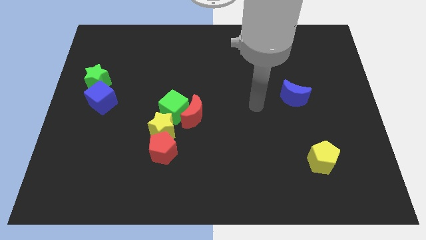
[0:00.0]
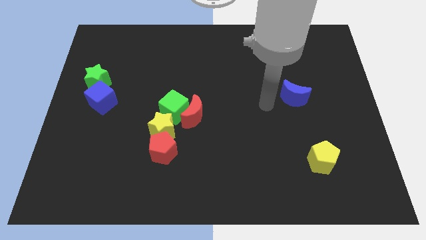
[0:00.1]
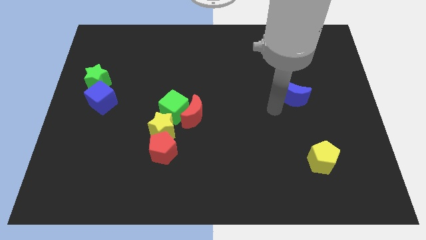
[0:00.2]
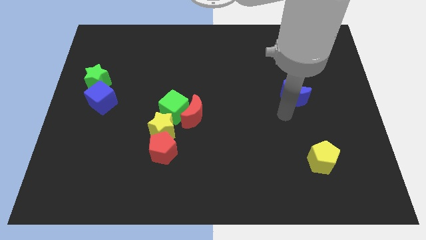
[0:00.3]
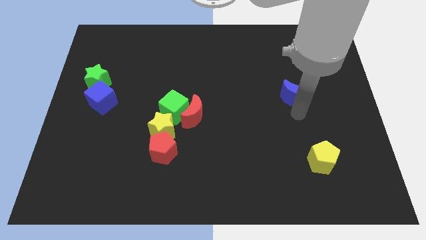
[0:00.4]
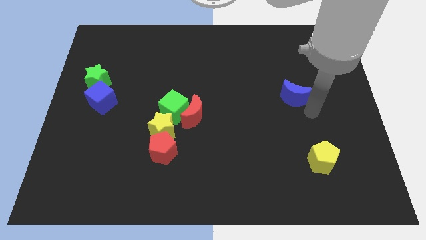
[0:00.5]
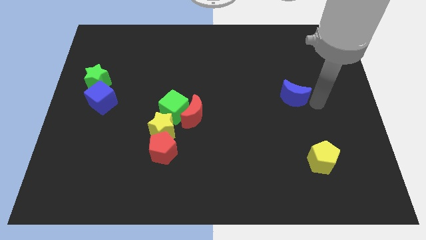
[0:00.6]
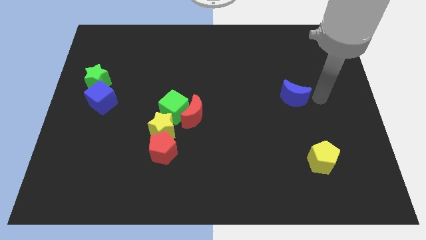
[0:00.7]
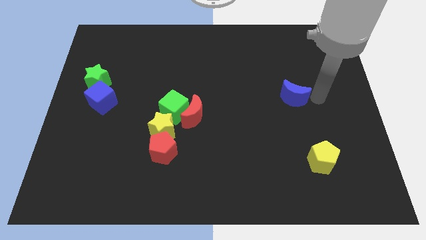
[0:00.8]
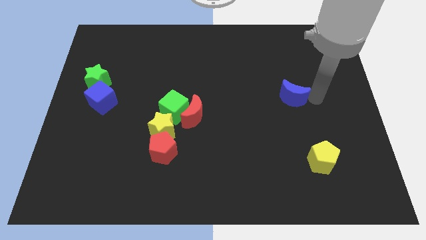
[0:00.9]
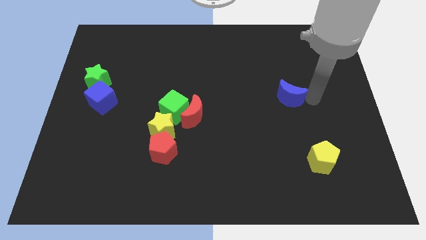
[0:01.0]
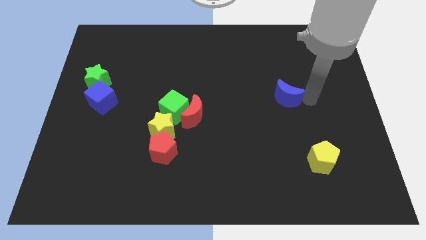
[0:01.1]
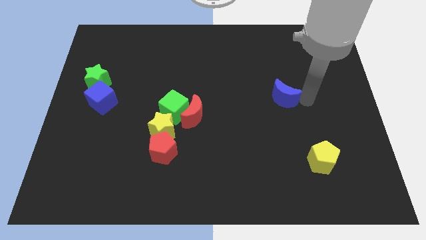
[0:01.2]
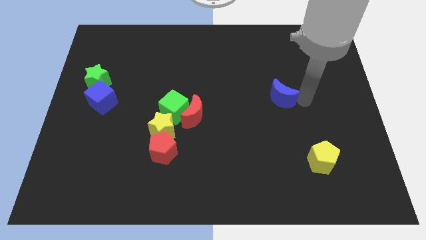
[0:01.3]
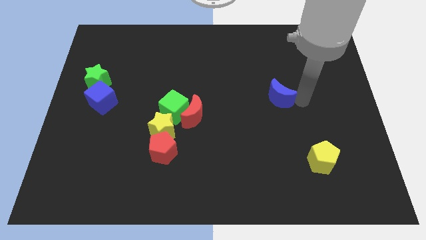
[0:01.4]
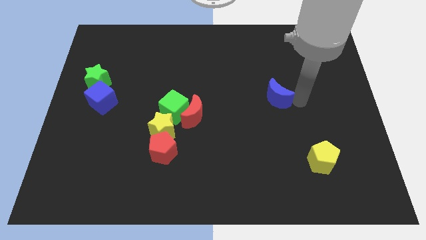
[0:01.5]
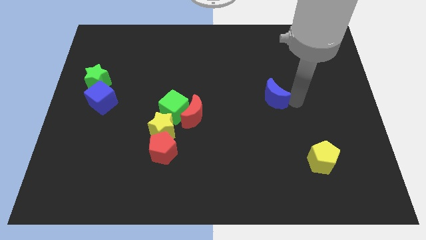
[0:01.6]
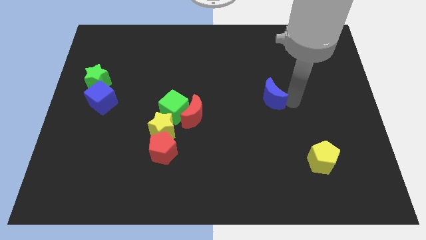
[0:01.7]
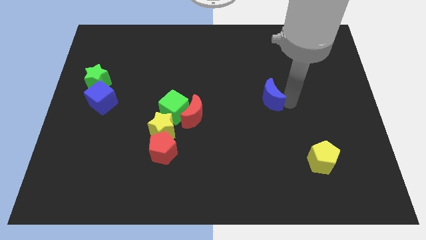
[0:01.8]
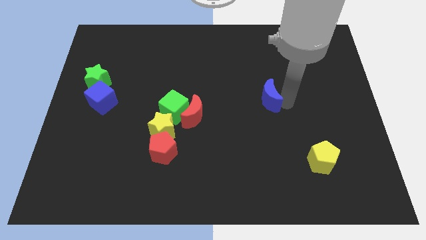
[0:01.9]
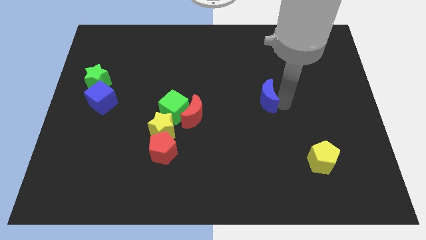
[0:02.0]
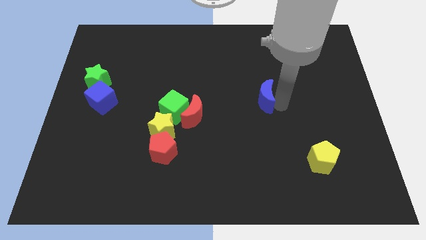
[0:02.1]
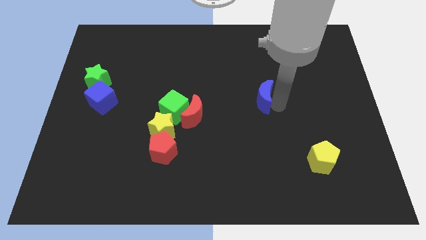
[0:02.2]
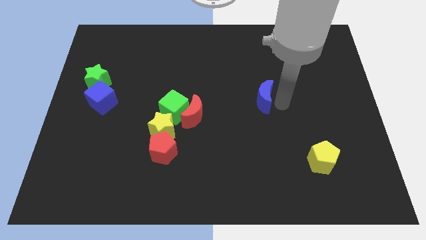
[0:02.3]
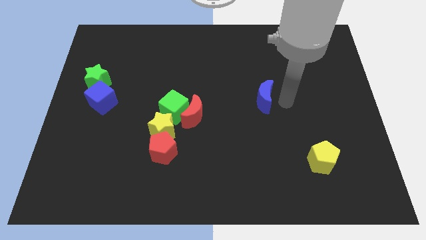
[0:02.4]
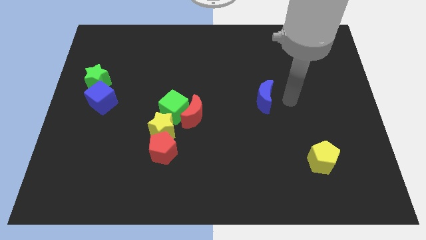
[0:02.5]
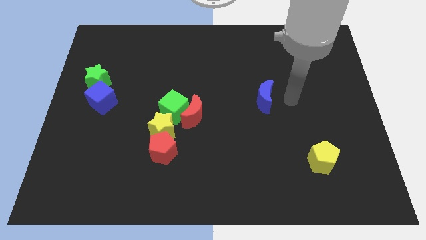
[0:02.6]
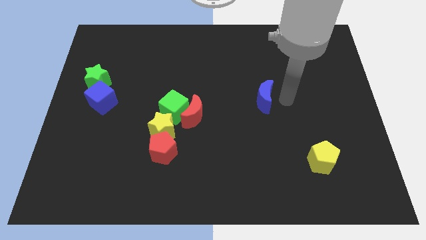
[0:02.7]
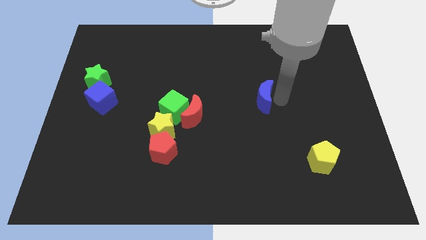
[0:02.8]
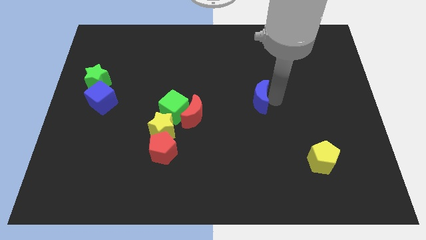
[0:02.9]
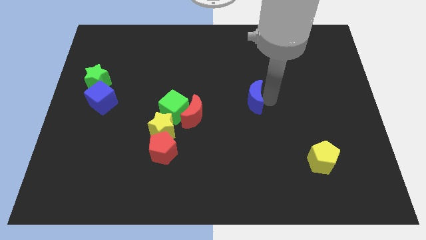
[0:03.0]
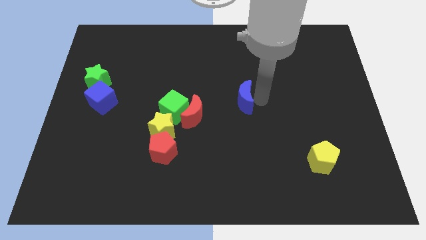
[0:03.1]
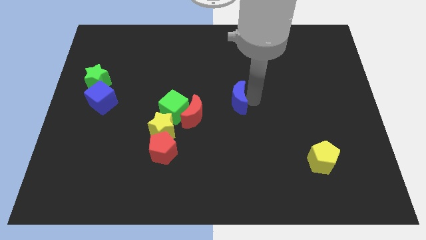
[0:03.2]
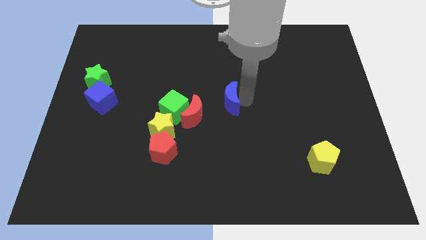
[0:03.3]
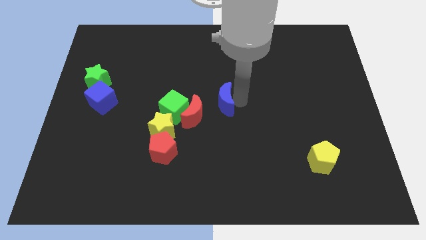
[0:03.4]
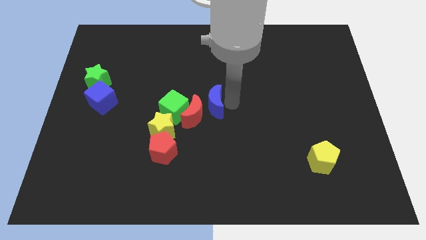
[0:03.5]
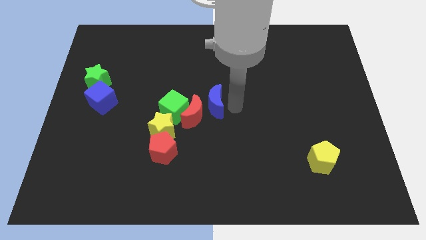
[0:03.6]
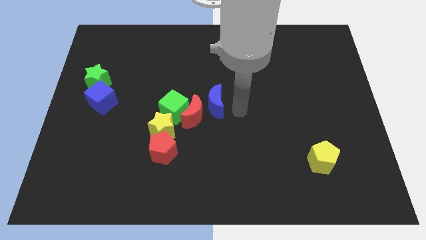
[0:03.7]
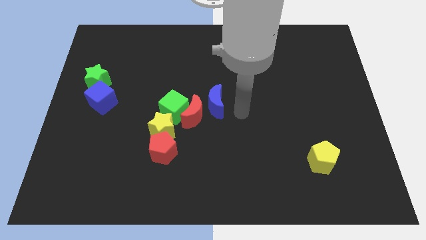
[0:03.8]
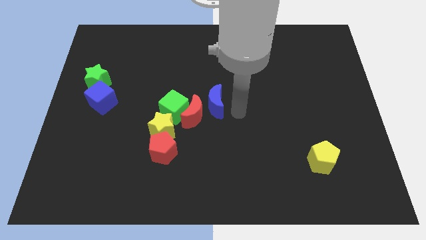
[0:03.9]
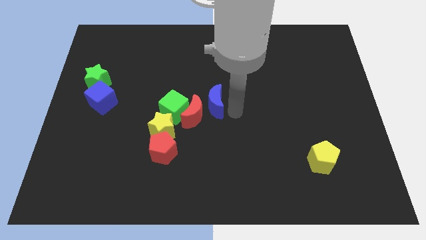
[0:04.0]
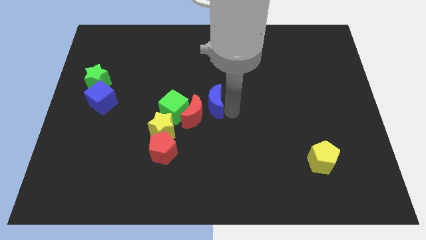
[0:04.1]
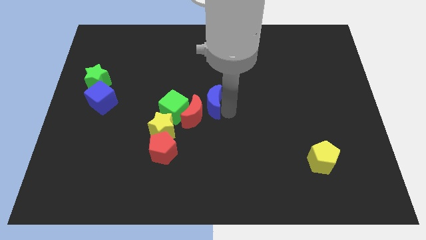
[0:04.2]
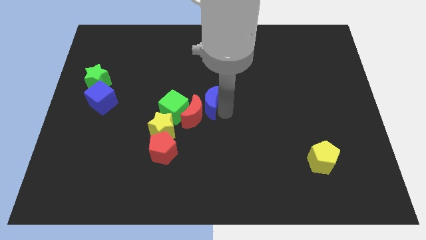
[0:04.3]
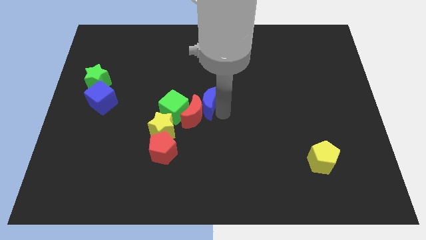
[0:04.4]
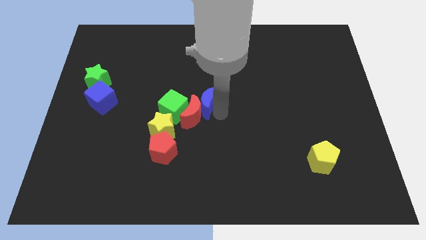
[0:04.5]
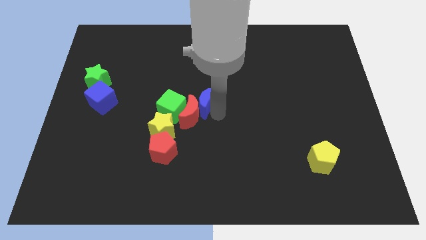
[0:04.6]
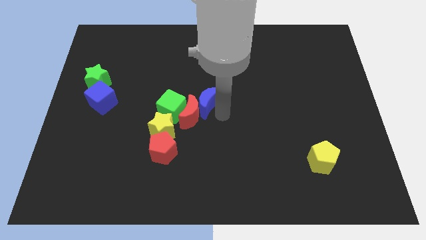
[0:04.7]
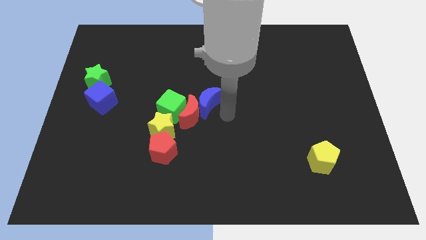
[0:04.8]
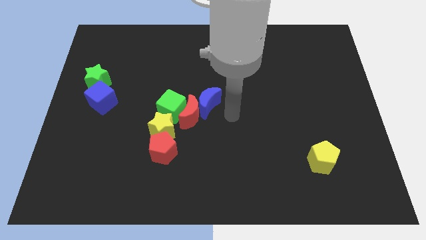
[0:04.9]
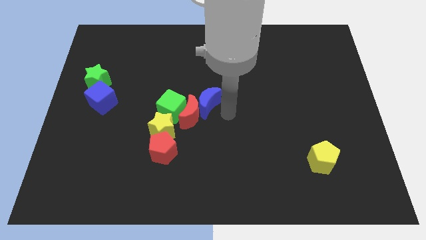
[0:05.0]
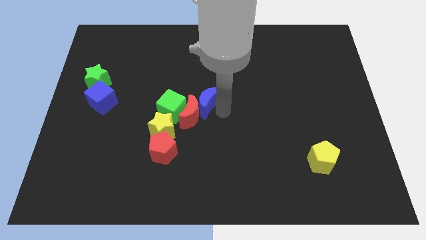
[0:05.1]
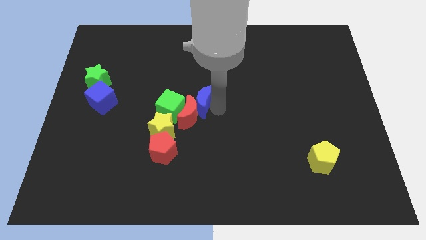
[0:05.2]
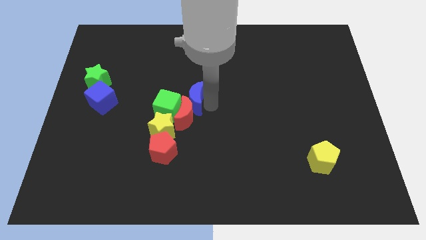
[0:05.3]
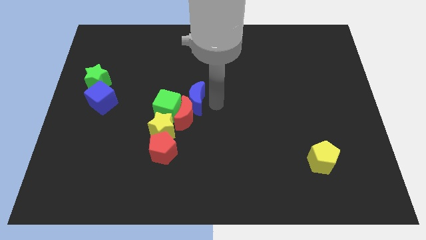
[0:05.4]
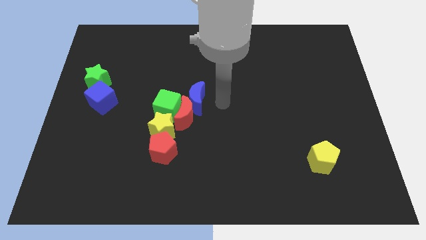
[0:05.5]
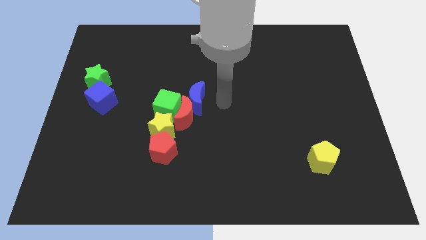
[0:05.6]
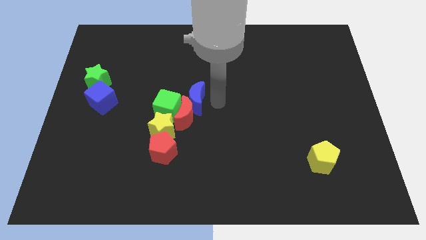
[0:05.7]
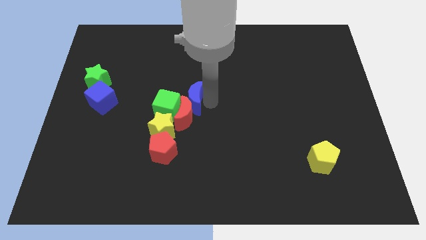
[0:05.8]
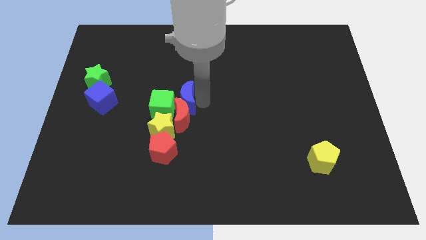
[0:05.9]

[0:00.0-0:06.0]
move the blue moon to the top left side of the red moon

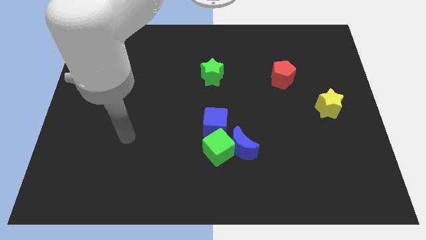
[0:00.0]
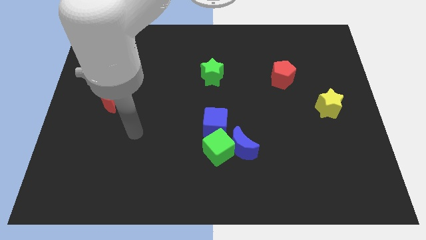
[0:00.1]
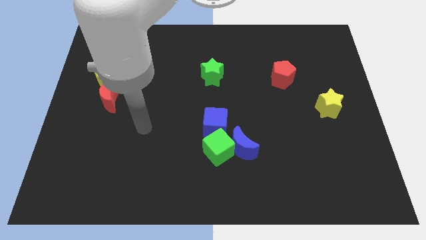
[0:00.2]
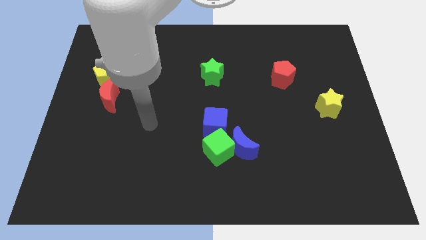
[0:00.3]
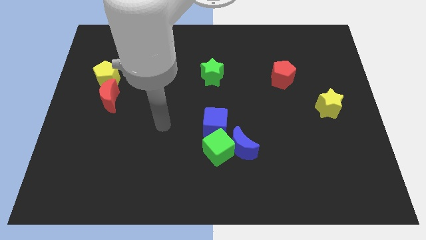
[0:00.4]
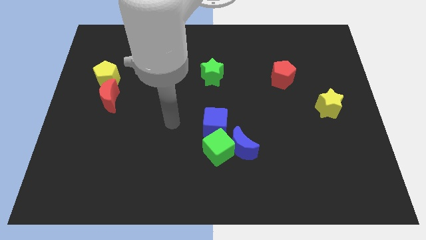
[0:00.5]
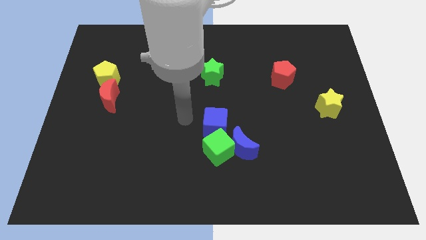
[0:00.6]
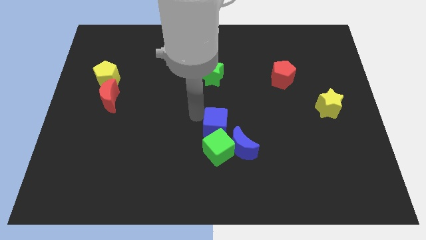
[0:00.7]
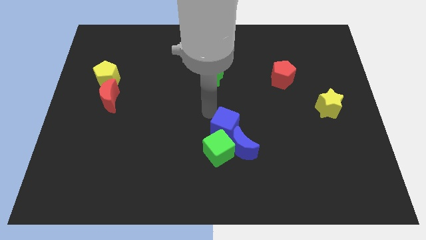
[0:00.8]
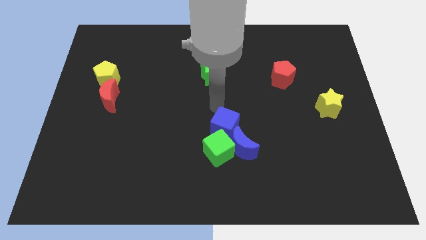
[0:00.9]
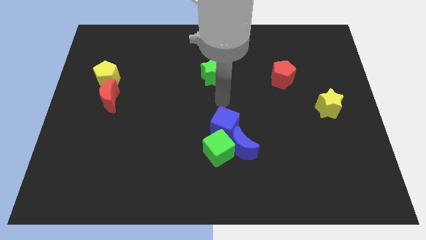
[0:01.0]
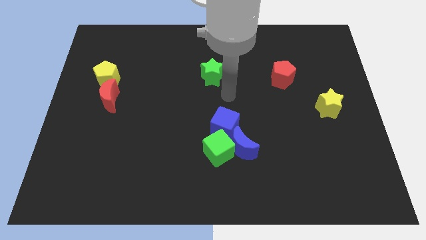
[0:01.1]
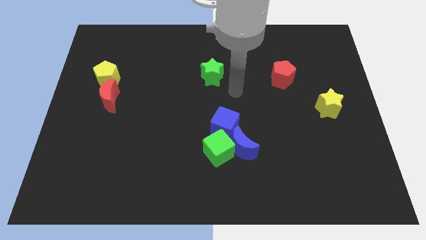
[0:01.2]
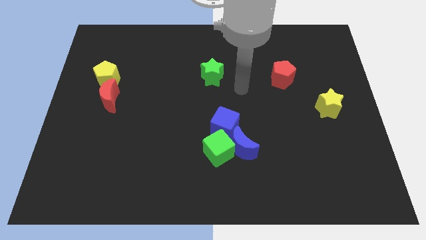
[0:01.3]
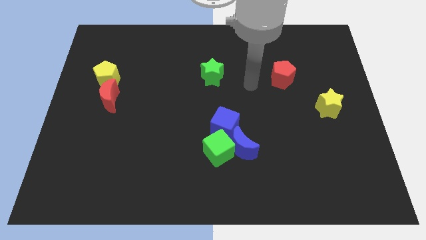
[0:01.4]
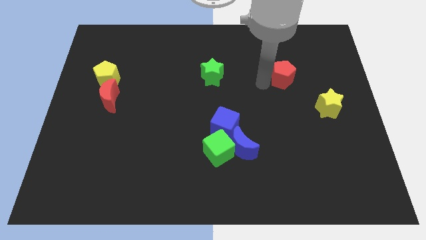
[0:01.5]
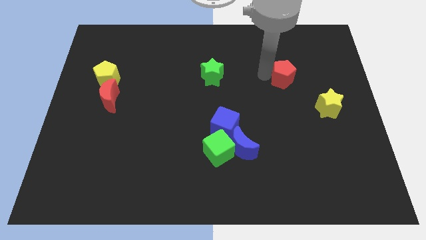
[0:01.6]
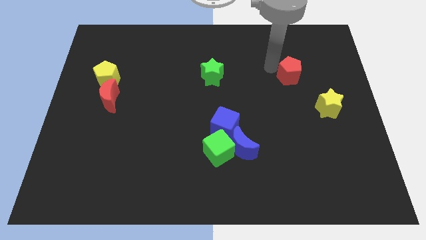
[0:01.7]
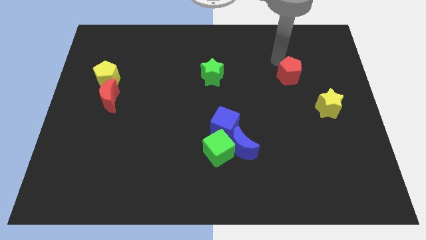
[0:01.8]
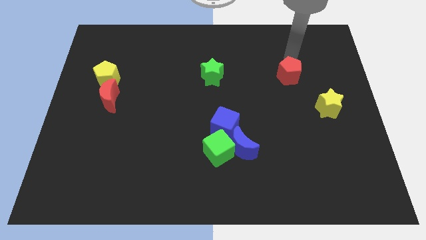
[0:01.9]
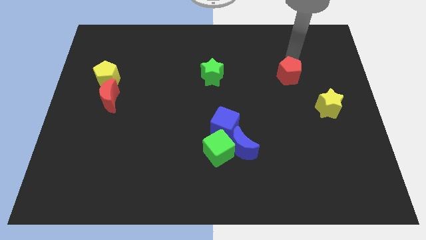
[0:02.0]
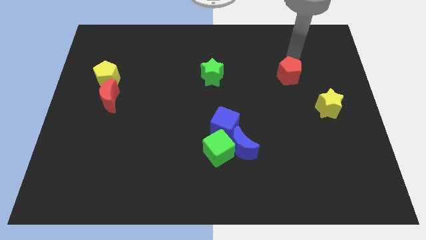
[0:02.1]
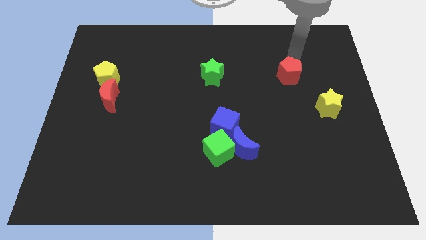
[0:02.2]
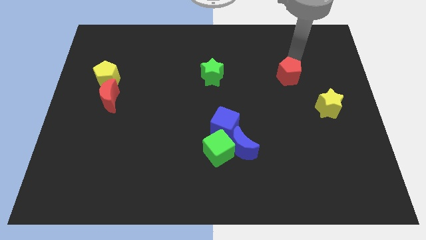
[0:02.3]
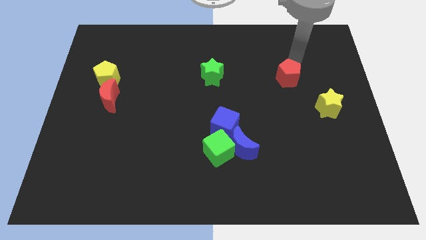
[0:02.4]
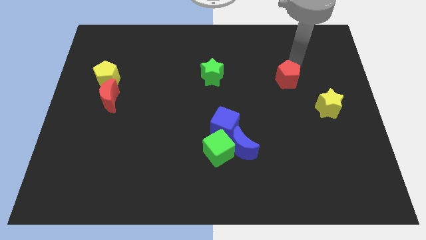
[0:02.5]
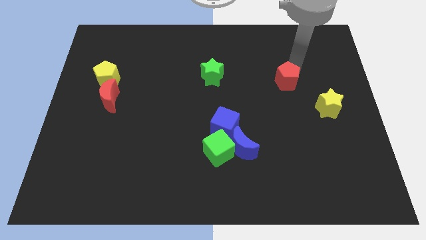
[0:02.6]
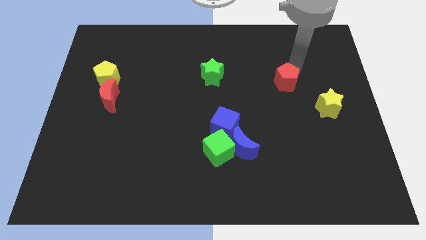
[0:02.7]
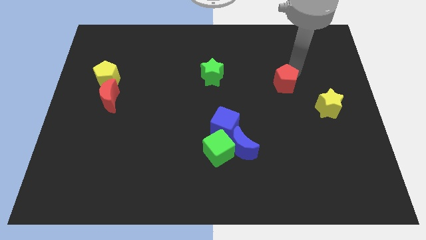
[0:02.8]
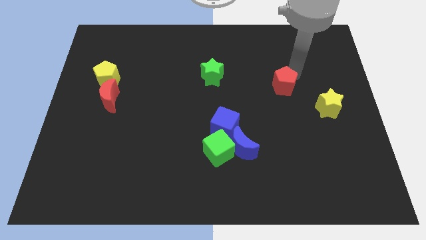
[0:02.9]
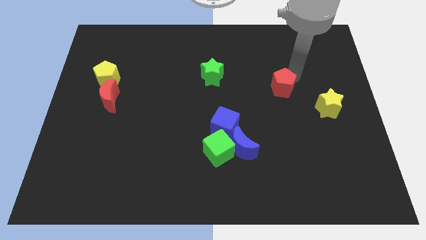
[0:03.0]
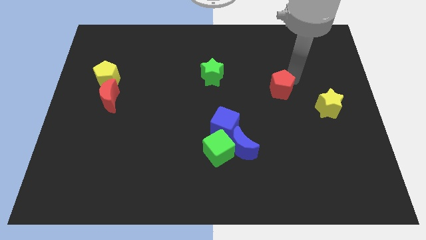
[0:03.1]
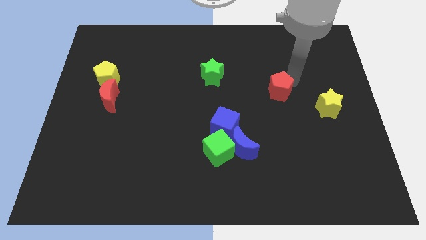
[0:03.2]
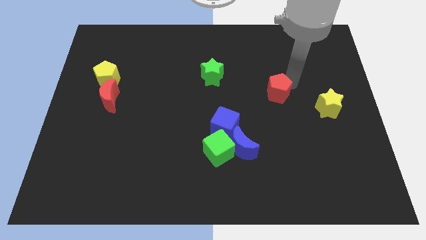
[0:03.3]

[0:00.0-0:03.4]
slide the red pentagon just left of the yellow star
